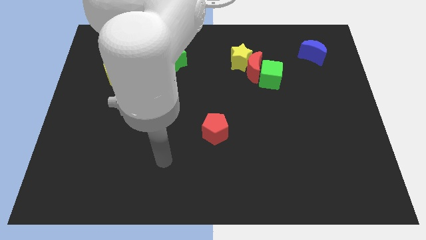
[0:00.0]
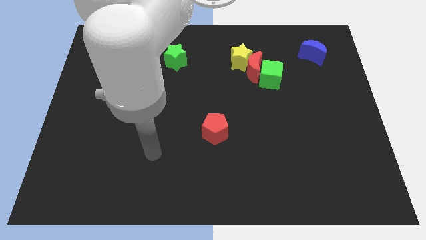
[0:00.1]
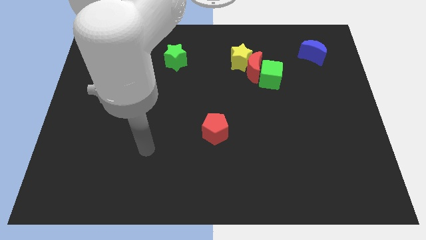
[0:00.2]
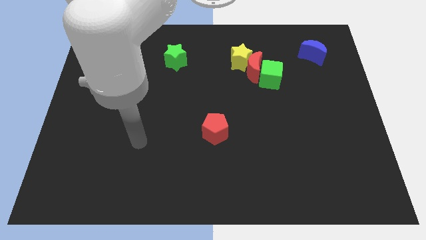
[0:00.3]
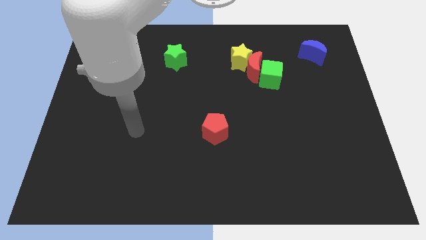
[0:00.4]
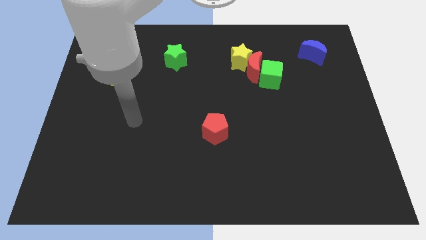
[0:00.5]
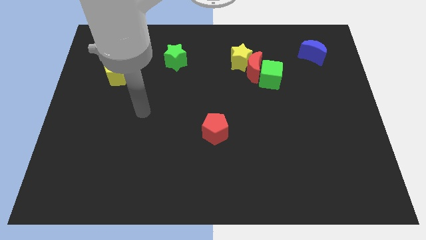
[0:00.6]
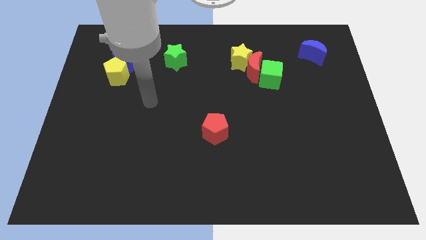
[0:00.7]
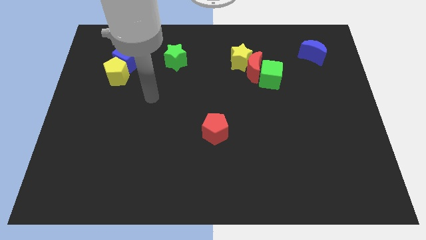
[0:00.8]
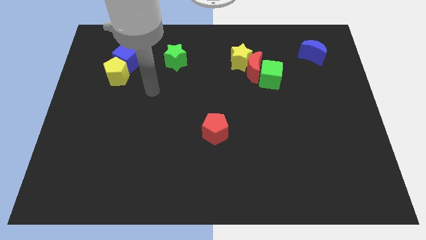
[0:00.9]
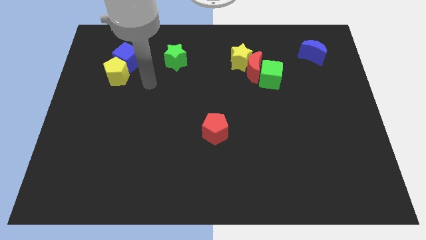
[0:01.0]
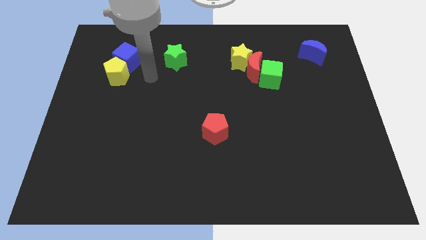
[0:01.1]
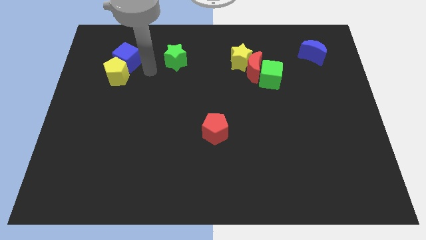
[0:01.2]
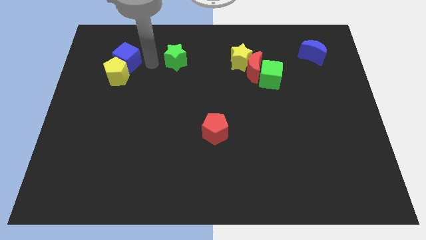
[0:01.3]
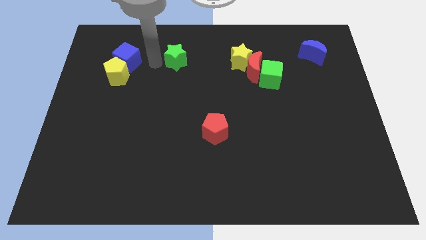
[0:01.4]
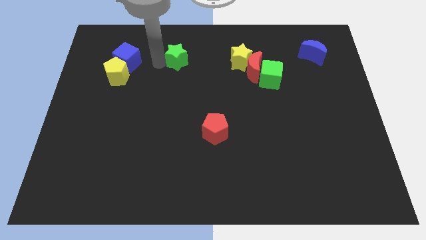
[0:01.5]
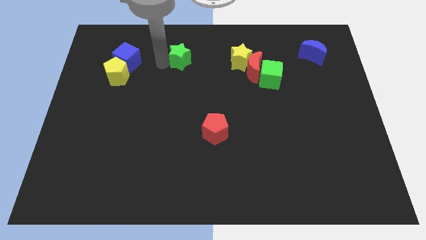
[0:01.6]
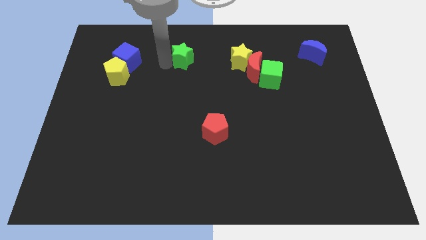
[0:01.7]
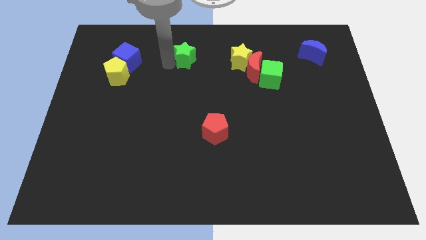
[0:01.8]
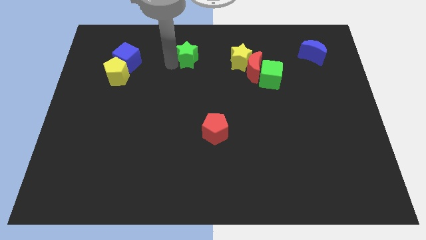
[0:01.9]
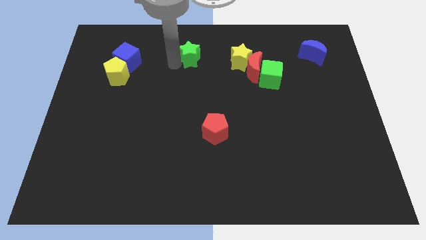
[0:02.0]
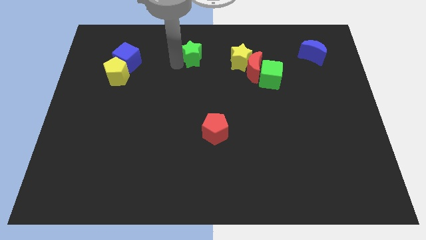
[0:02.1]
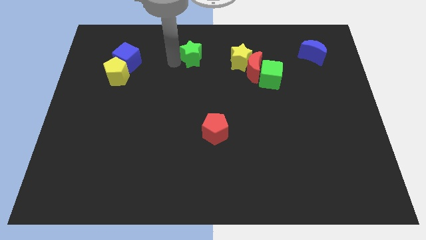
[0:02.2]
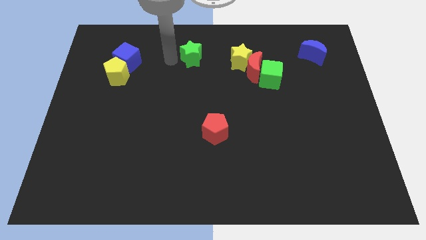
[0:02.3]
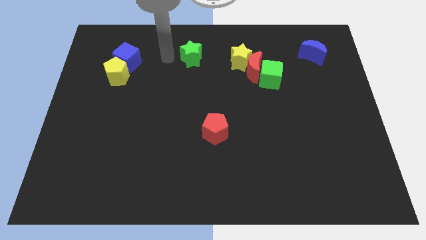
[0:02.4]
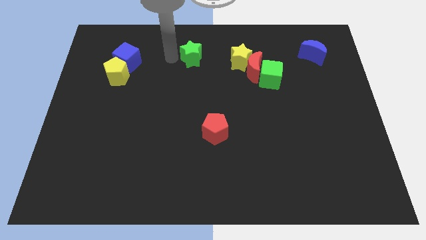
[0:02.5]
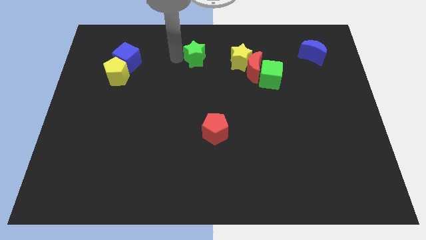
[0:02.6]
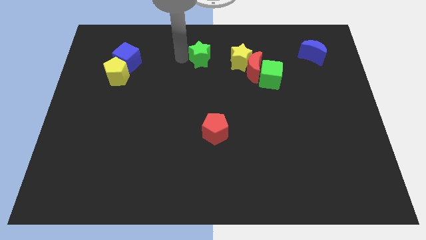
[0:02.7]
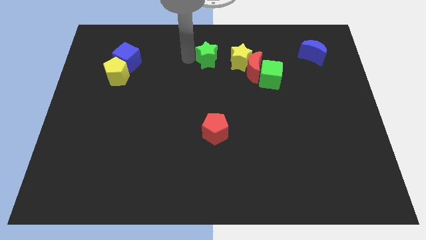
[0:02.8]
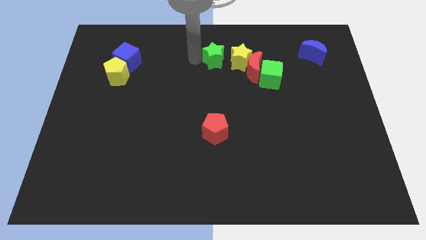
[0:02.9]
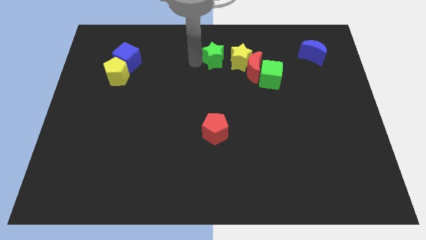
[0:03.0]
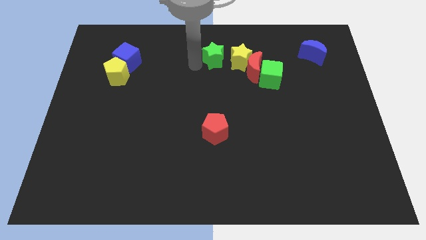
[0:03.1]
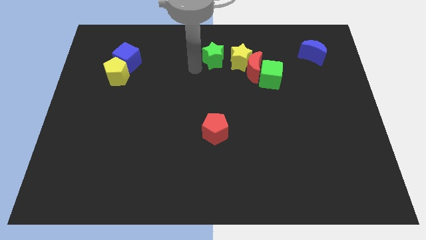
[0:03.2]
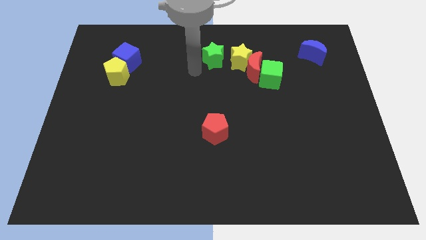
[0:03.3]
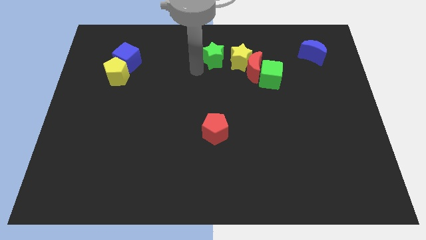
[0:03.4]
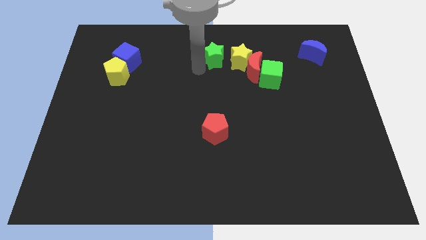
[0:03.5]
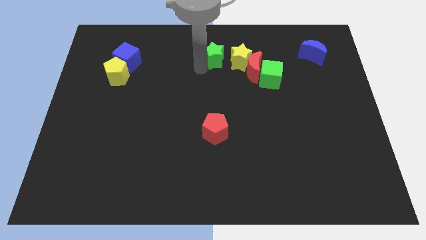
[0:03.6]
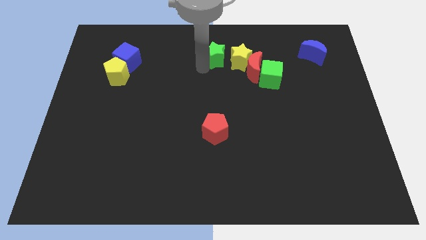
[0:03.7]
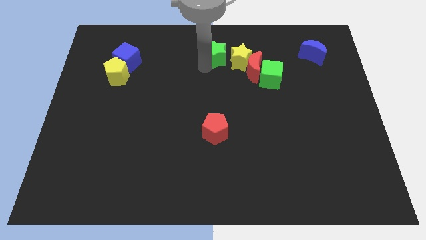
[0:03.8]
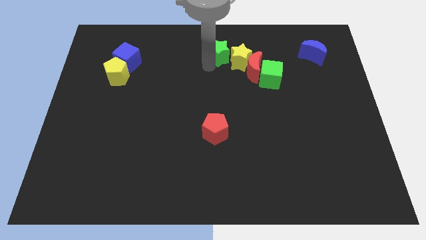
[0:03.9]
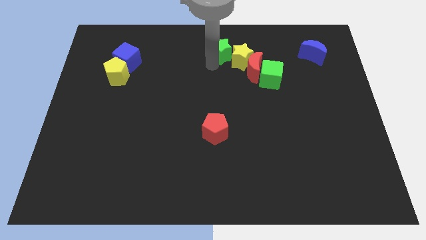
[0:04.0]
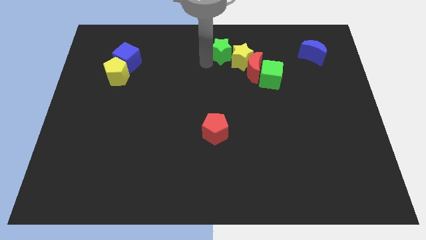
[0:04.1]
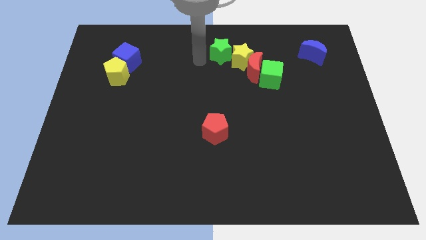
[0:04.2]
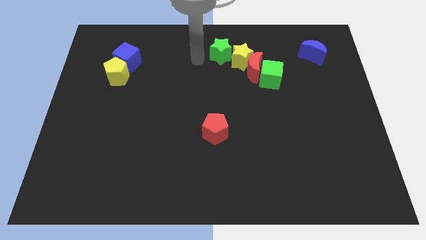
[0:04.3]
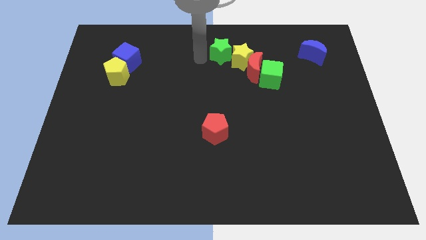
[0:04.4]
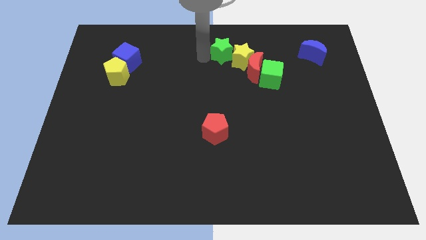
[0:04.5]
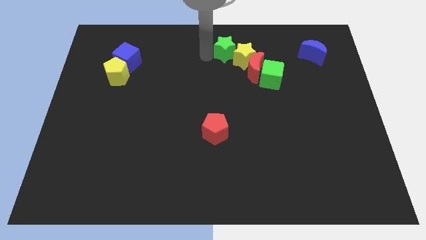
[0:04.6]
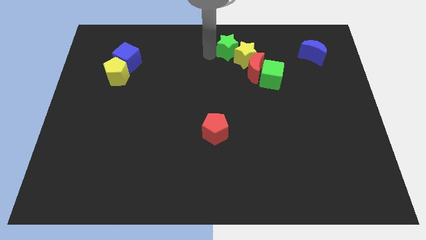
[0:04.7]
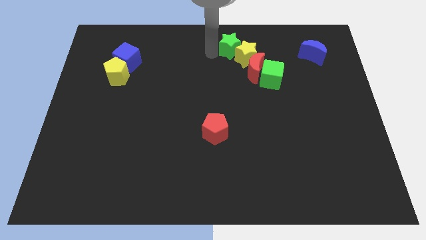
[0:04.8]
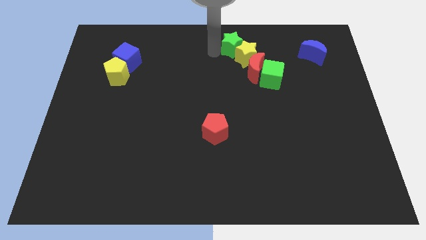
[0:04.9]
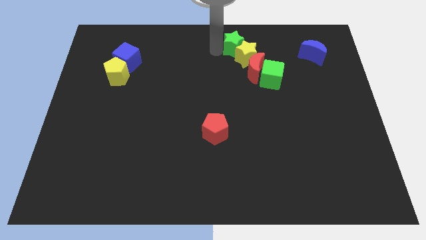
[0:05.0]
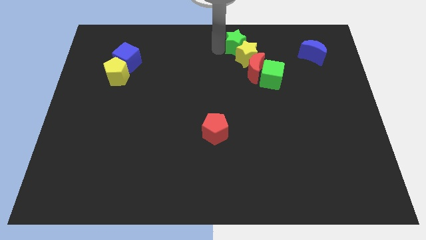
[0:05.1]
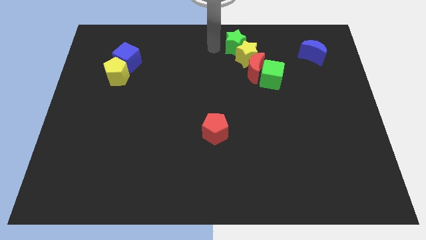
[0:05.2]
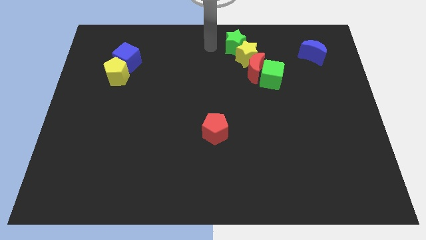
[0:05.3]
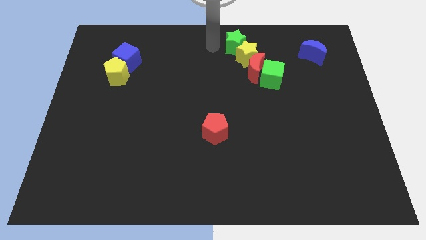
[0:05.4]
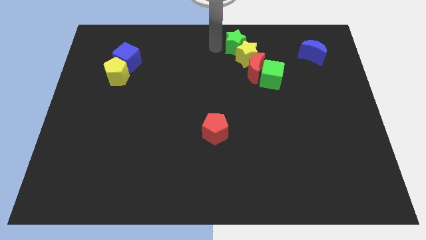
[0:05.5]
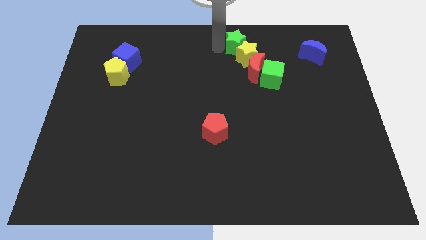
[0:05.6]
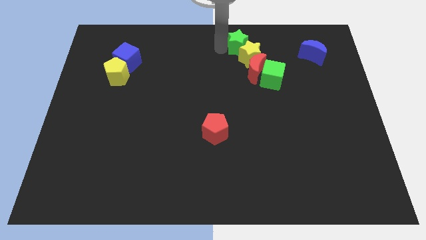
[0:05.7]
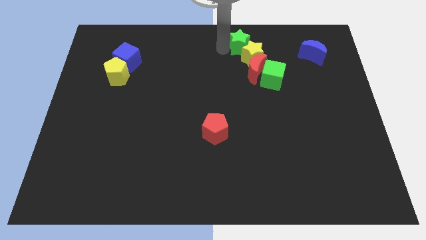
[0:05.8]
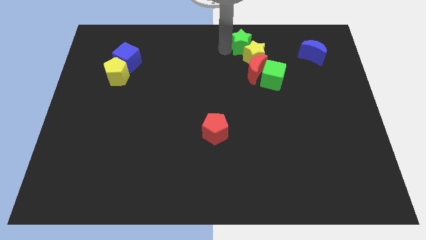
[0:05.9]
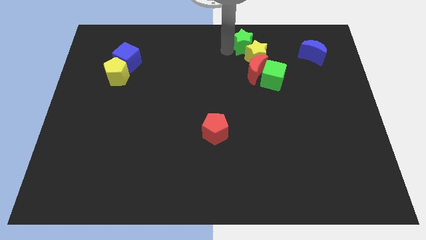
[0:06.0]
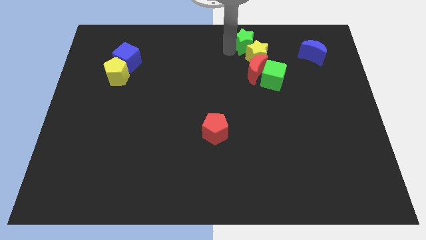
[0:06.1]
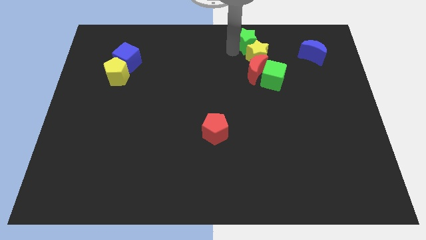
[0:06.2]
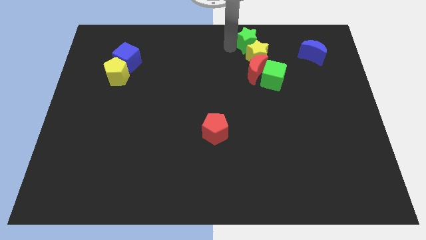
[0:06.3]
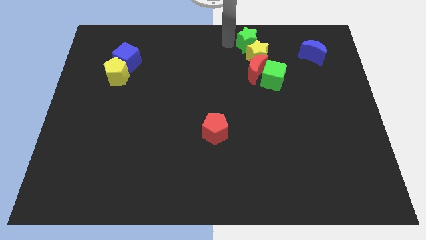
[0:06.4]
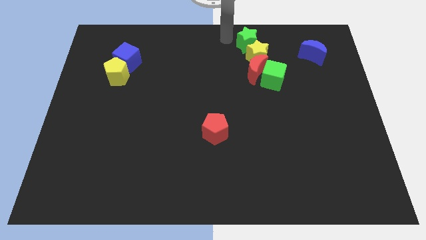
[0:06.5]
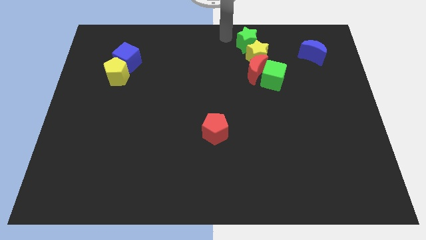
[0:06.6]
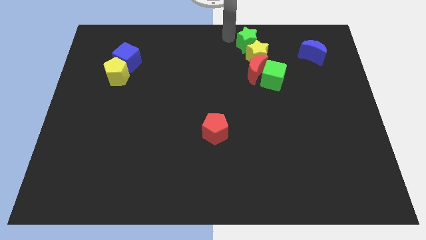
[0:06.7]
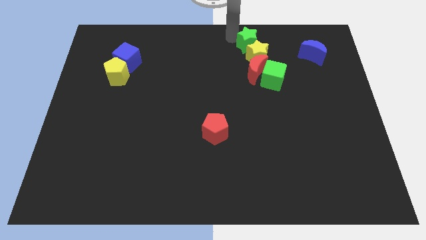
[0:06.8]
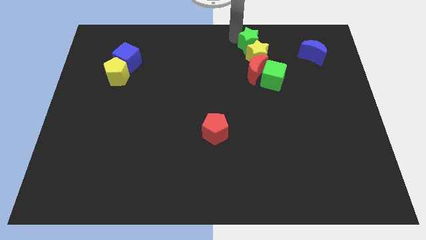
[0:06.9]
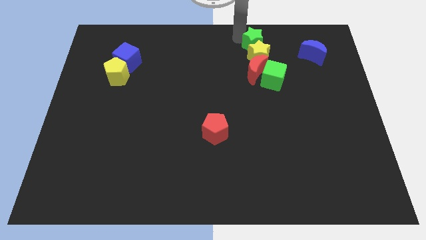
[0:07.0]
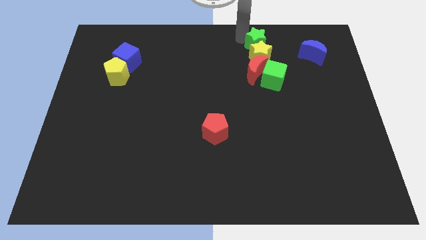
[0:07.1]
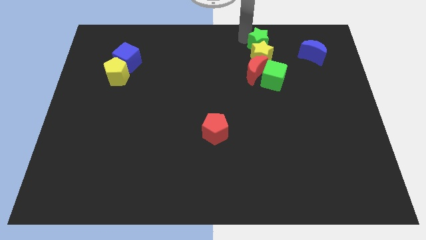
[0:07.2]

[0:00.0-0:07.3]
move the green star left of the blue moon

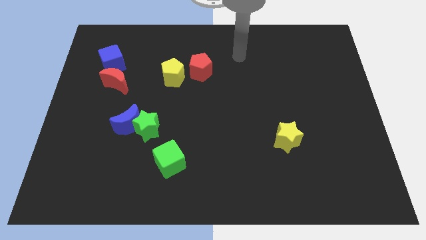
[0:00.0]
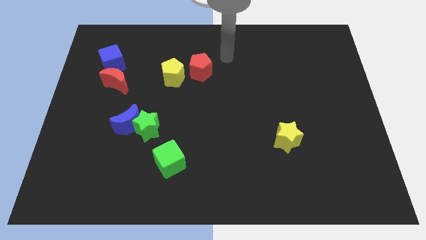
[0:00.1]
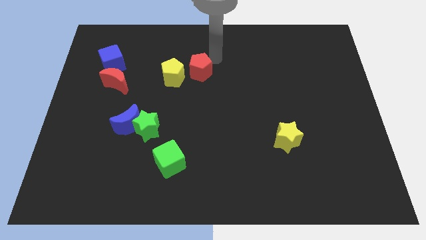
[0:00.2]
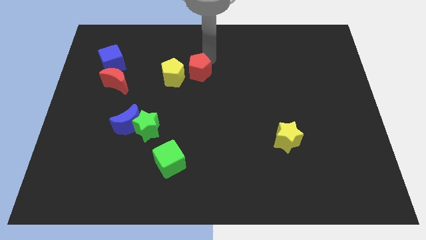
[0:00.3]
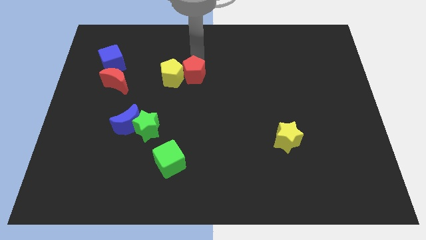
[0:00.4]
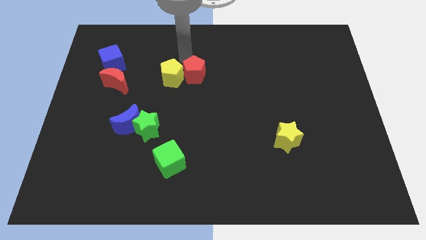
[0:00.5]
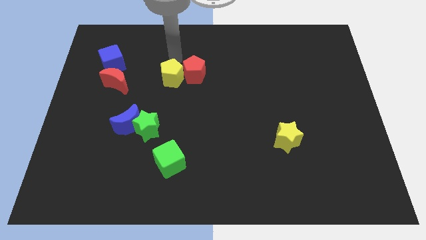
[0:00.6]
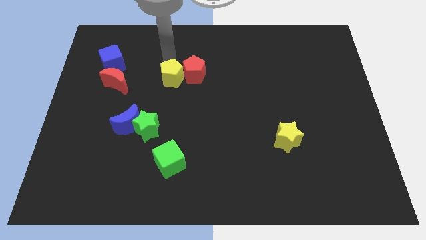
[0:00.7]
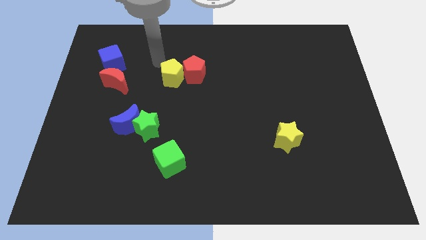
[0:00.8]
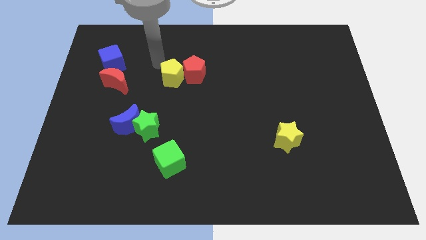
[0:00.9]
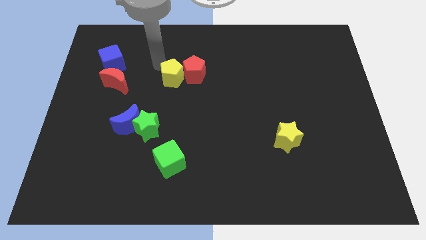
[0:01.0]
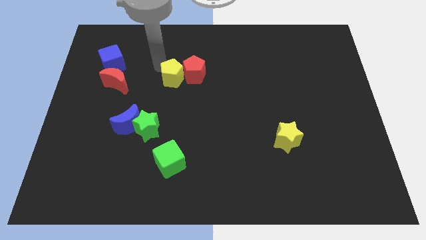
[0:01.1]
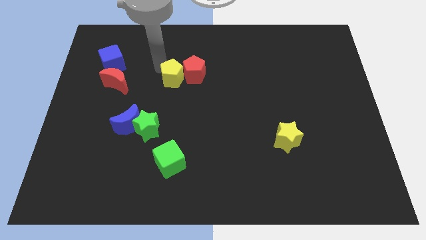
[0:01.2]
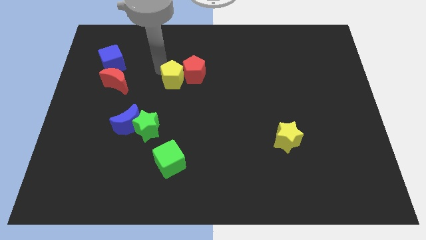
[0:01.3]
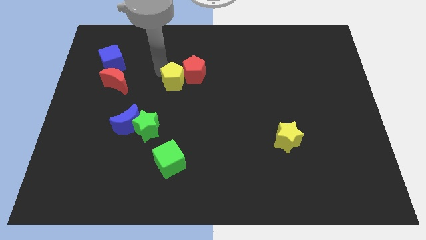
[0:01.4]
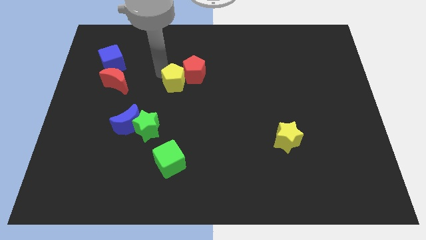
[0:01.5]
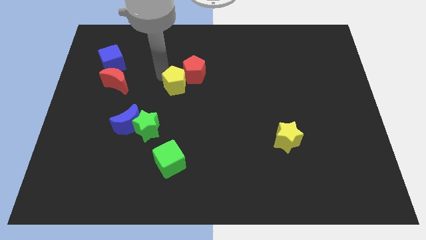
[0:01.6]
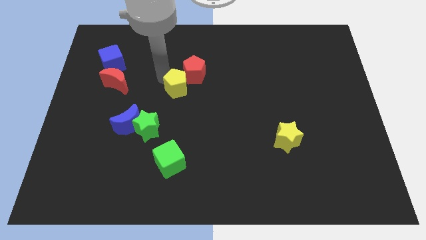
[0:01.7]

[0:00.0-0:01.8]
push the yellow pentagon to the bottom of the red pentagon
